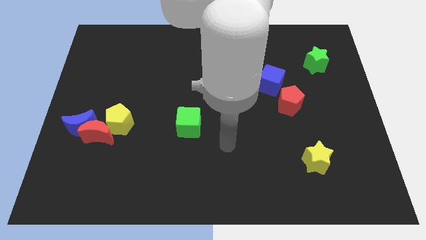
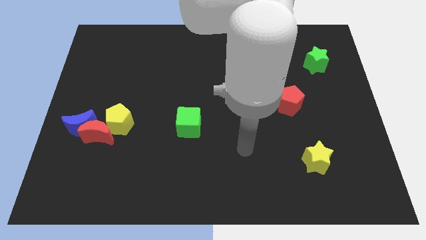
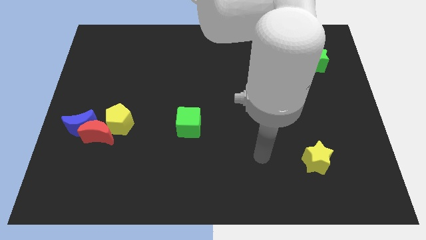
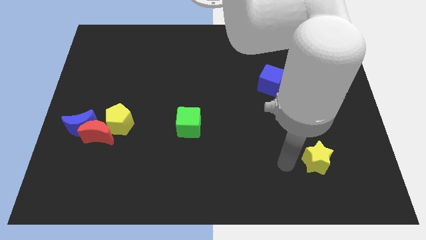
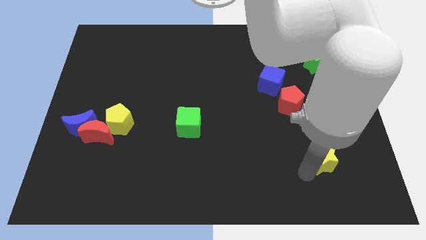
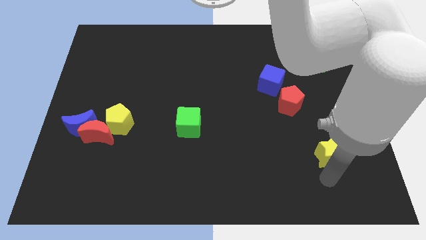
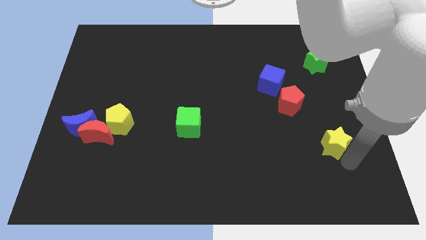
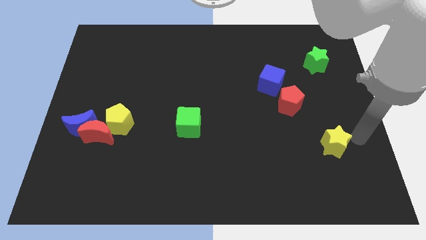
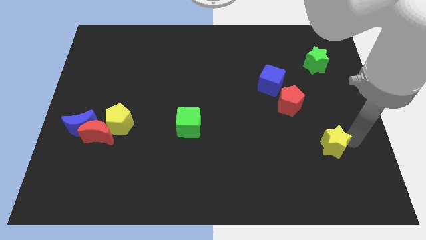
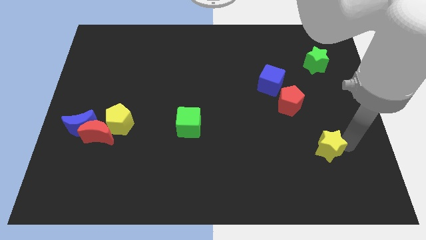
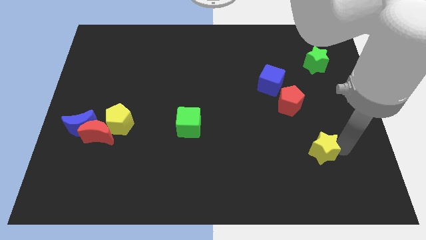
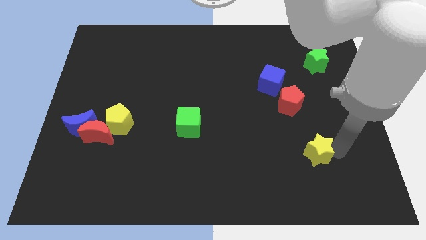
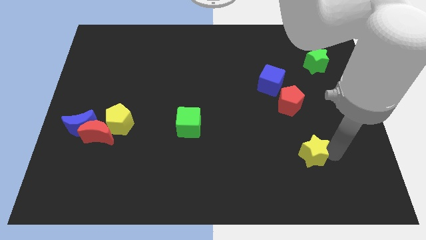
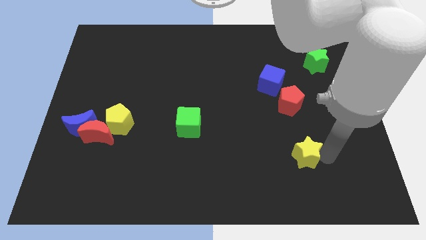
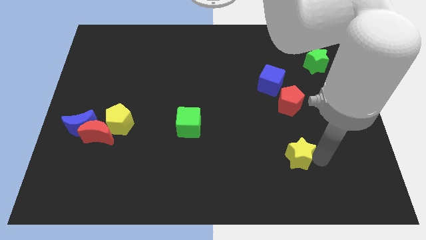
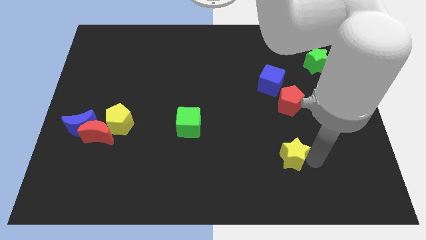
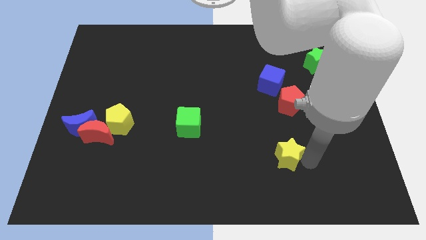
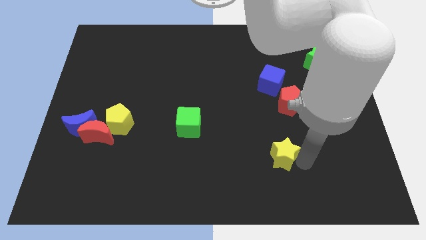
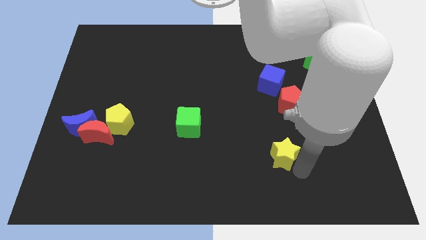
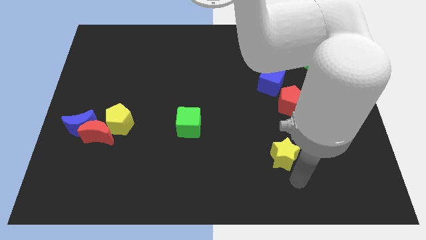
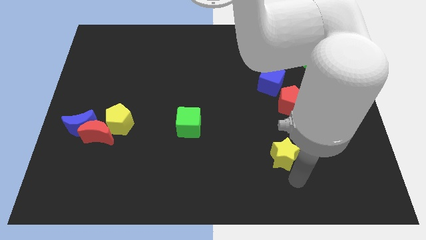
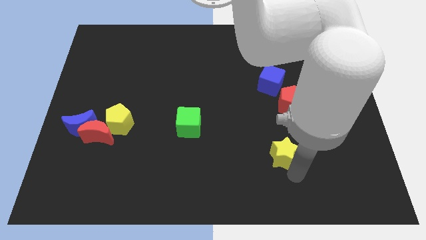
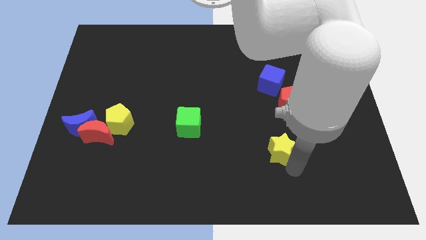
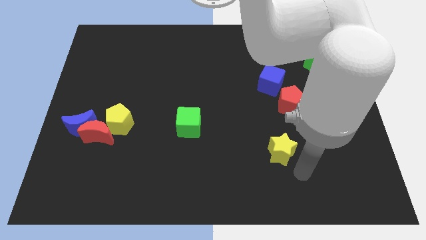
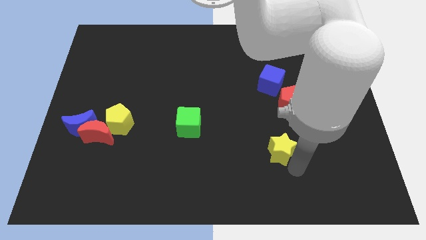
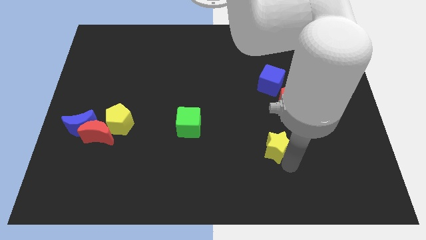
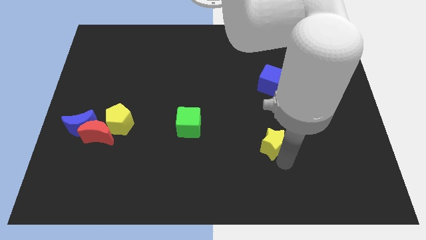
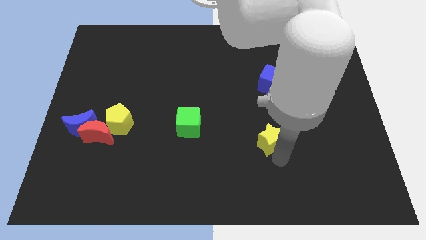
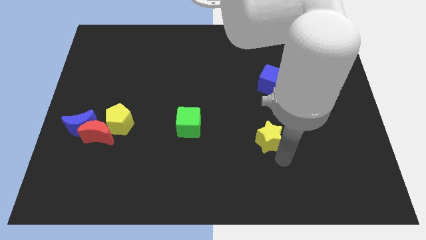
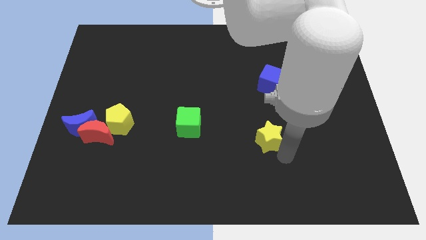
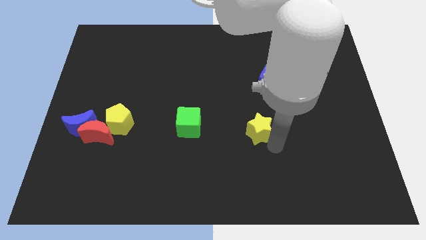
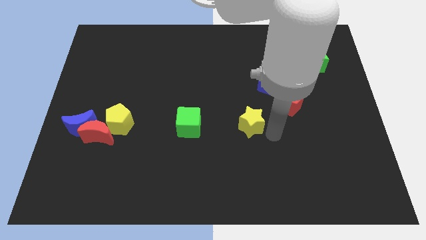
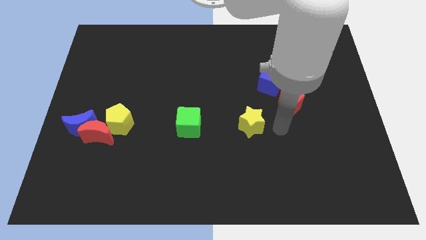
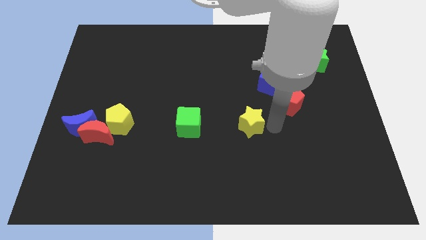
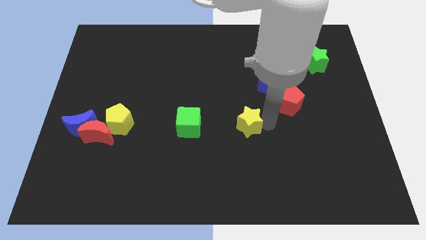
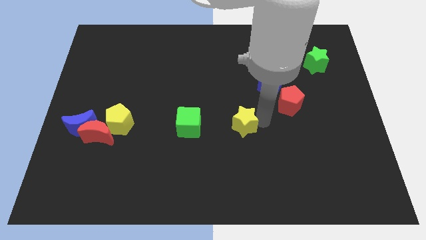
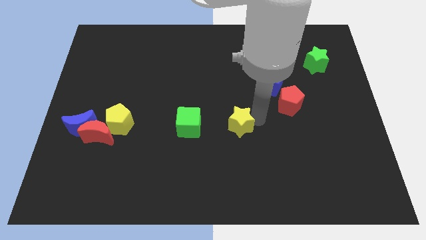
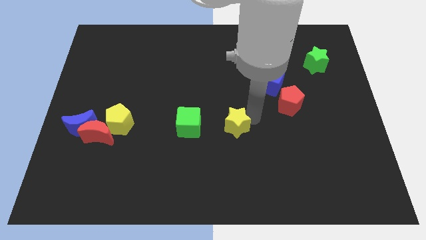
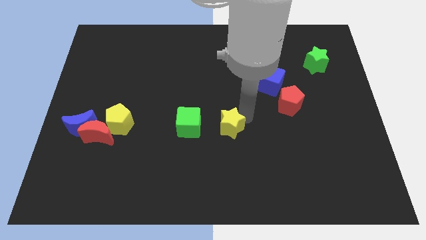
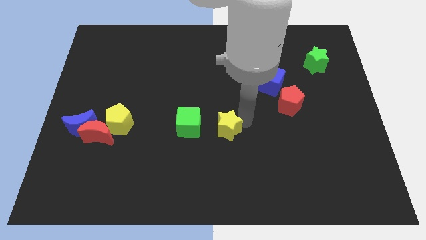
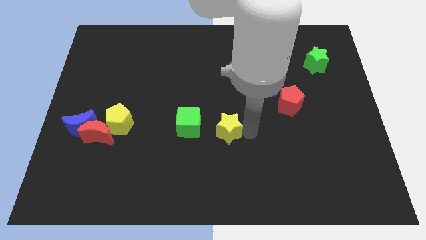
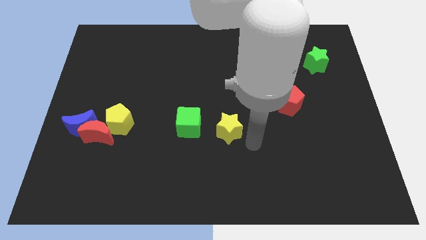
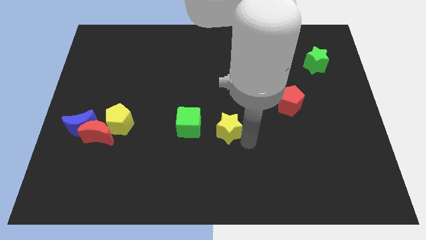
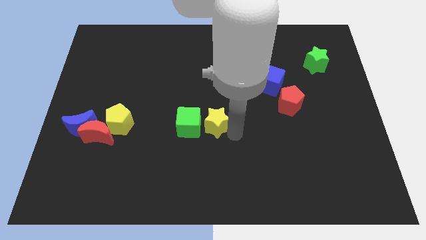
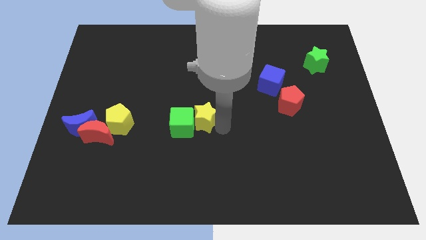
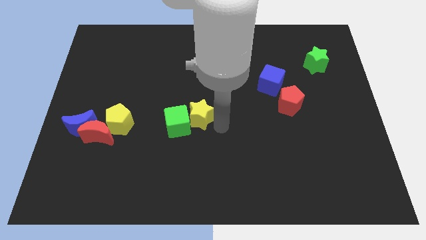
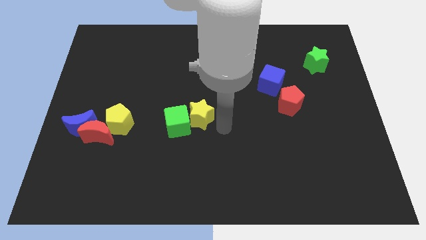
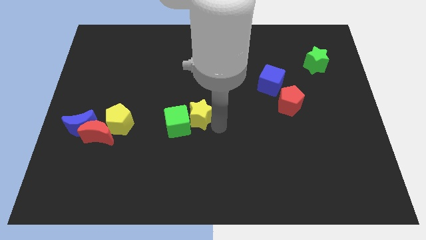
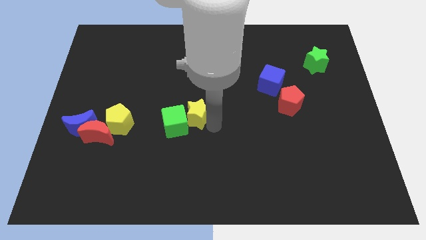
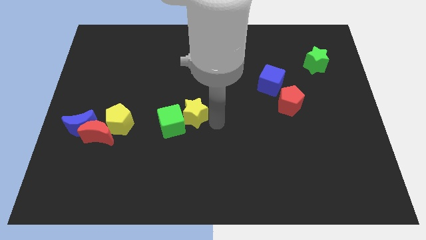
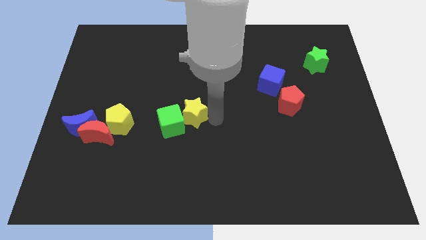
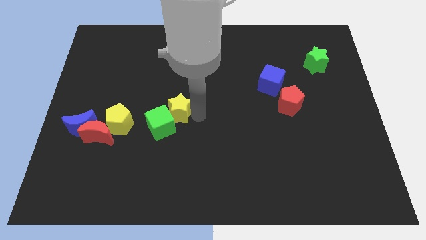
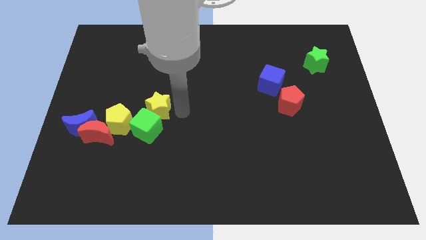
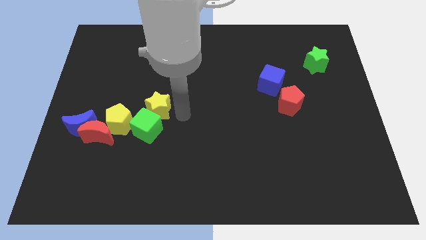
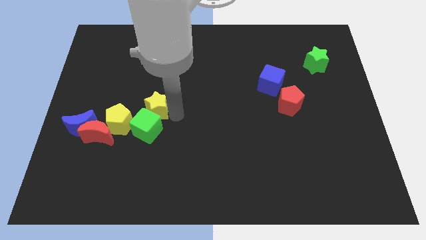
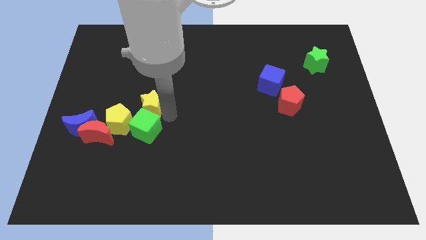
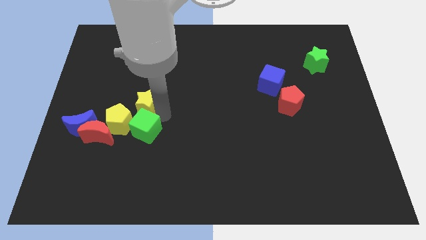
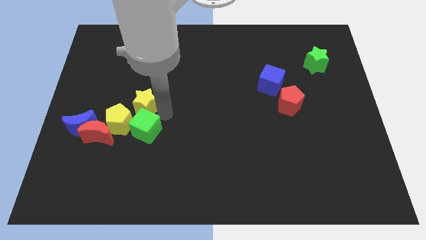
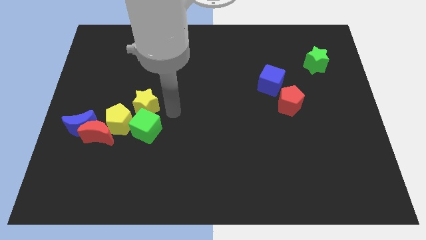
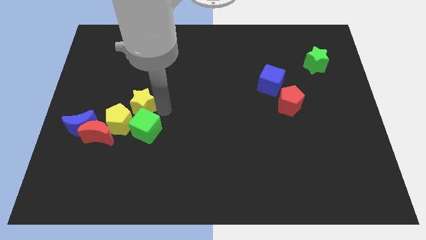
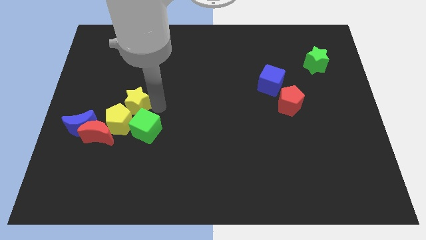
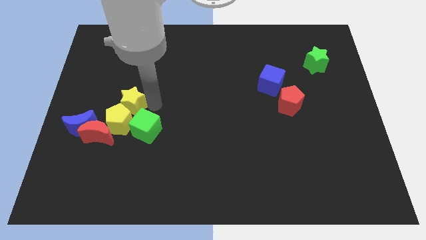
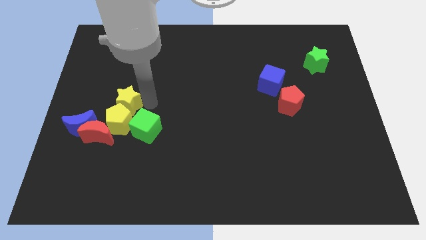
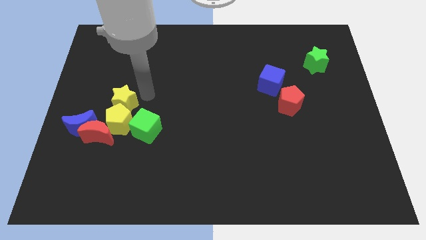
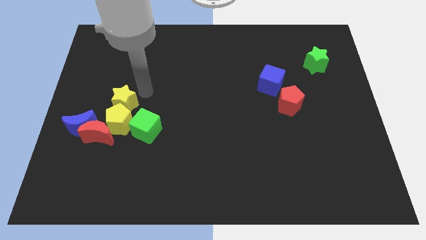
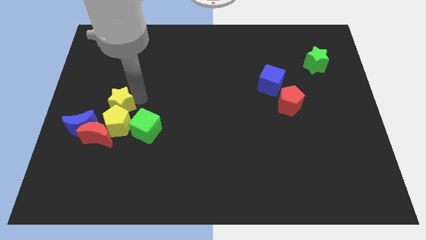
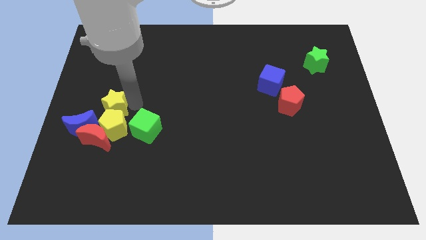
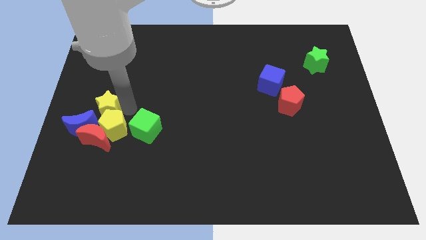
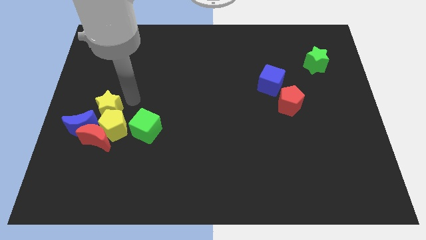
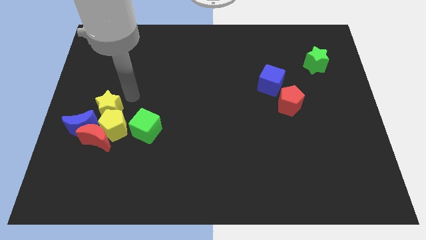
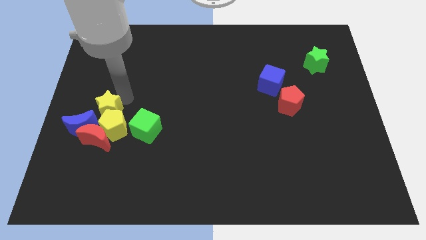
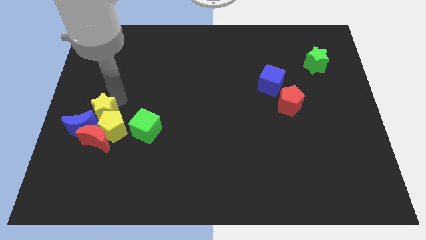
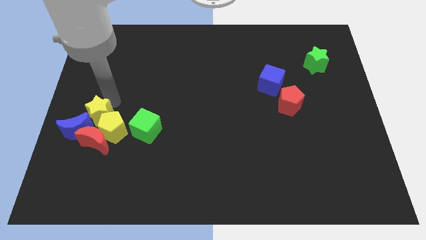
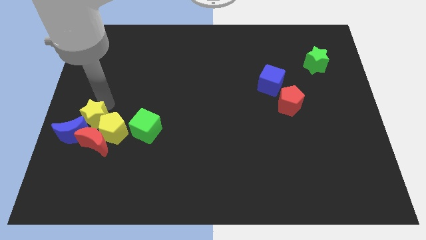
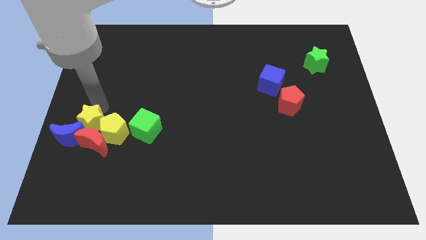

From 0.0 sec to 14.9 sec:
move the yellow star close to the blue moon
